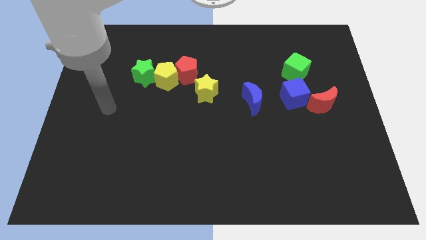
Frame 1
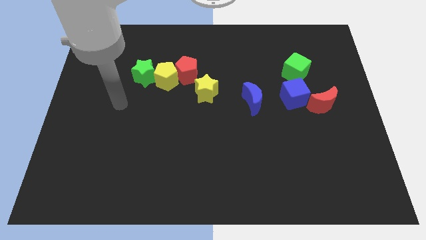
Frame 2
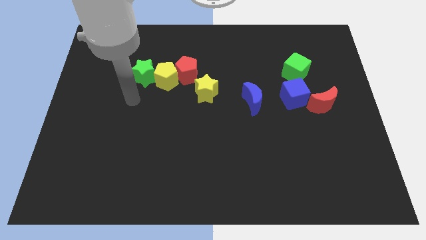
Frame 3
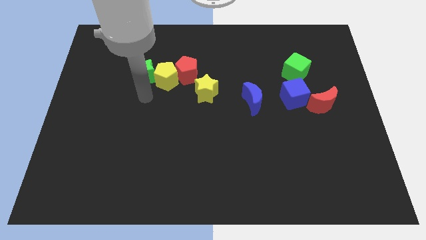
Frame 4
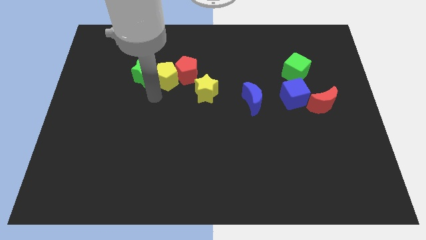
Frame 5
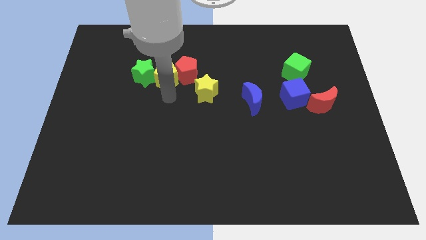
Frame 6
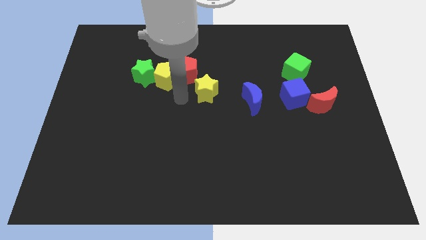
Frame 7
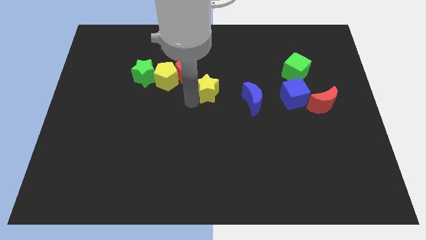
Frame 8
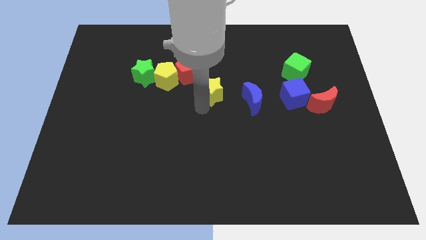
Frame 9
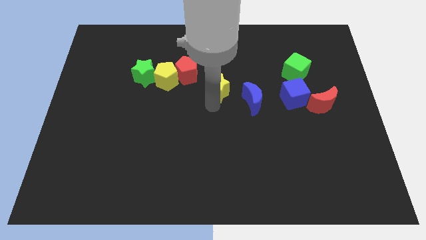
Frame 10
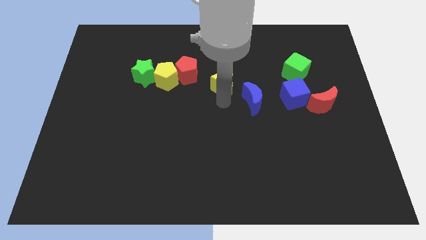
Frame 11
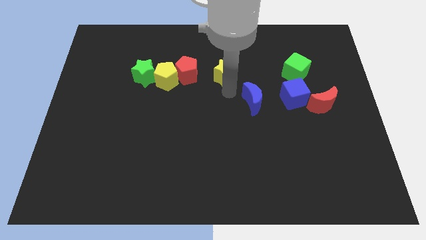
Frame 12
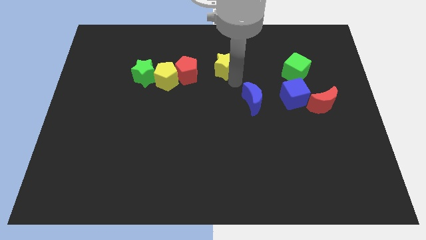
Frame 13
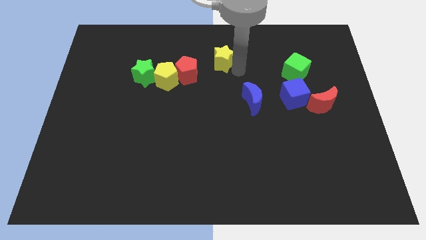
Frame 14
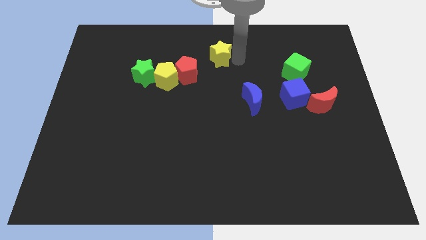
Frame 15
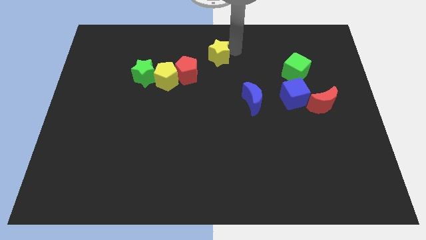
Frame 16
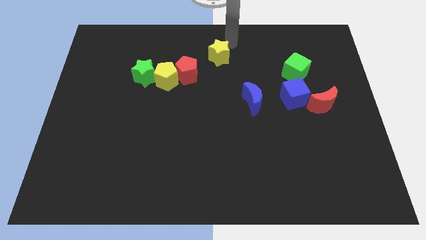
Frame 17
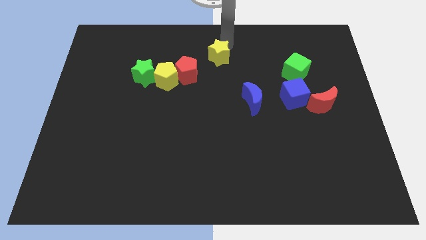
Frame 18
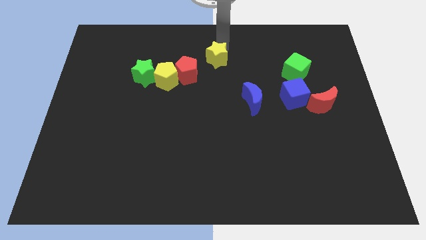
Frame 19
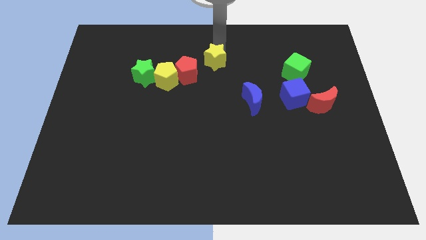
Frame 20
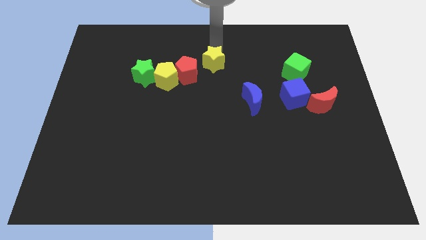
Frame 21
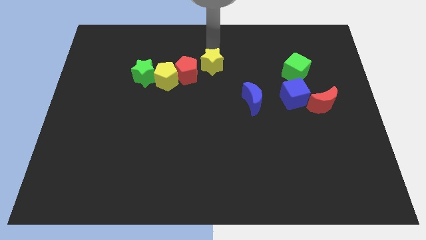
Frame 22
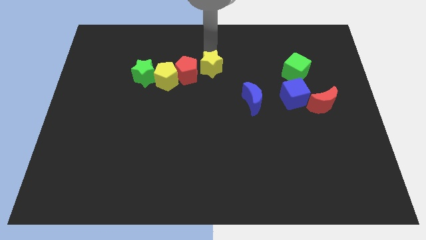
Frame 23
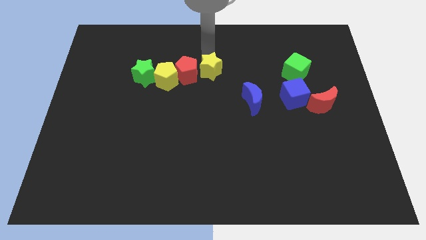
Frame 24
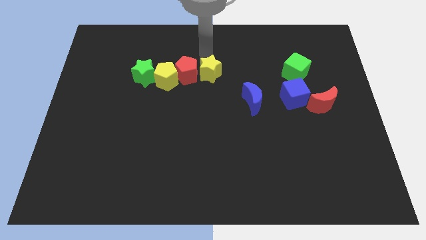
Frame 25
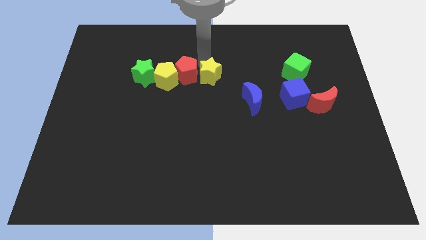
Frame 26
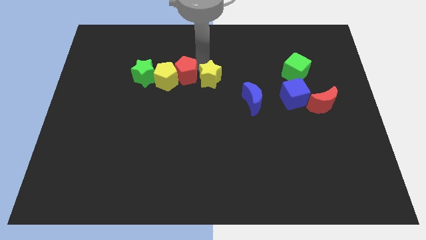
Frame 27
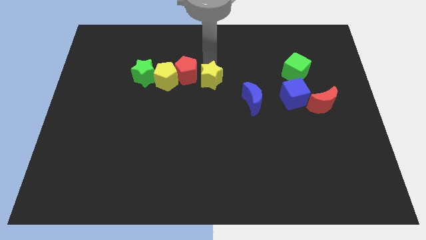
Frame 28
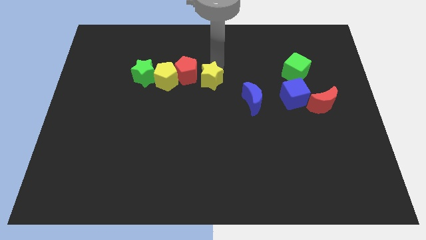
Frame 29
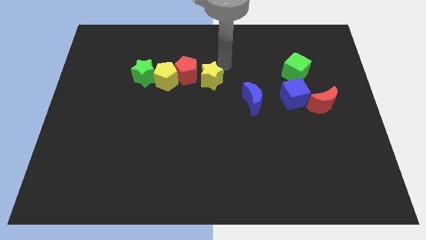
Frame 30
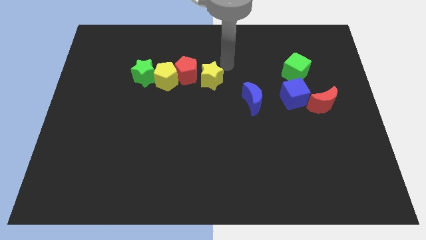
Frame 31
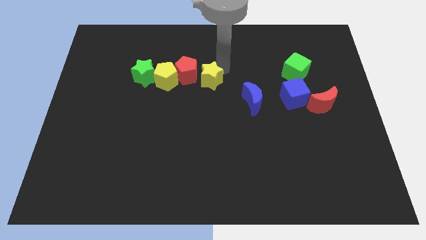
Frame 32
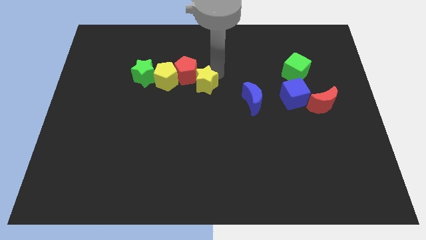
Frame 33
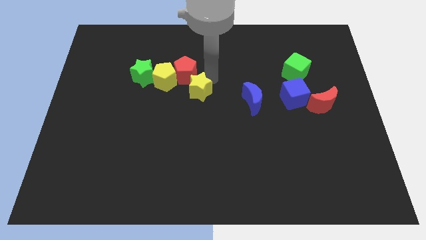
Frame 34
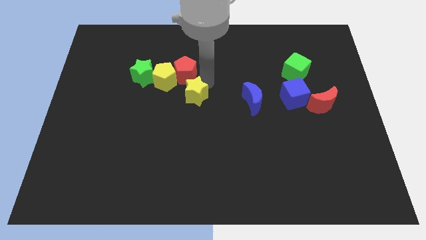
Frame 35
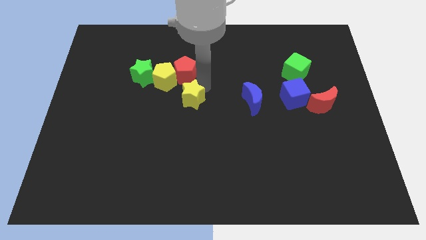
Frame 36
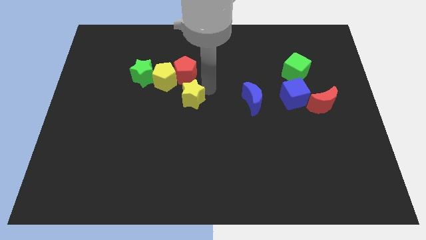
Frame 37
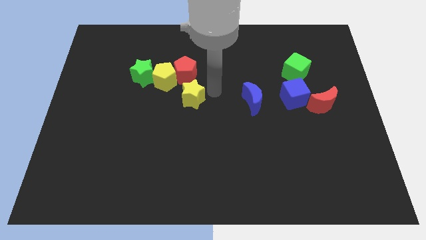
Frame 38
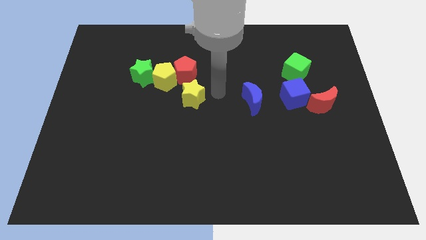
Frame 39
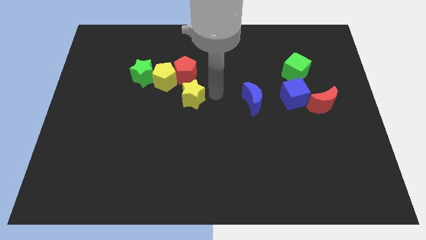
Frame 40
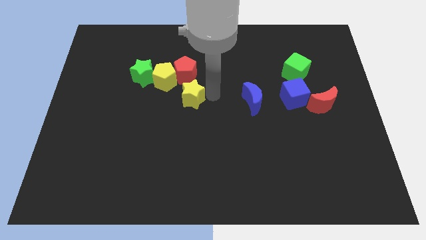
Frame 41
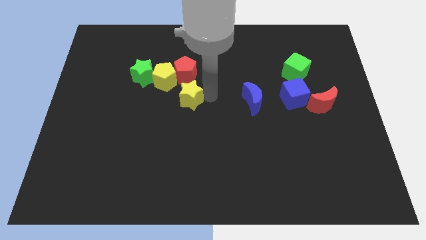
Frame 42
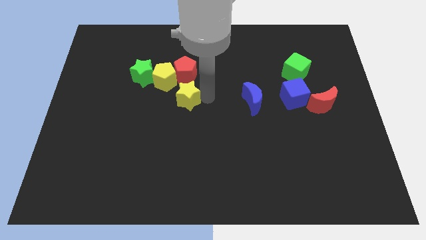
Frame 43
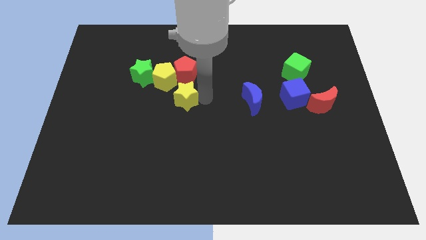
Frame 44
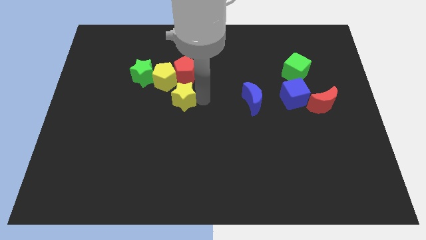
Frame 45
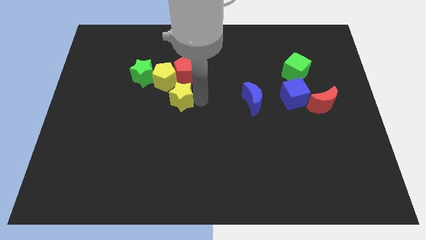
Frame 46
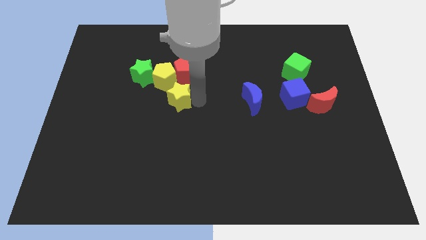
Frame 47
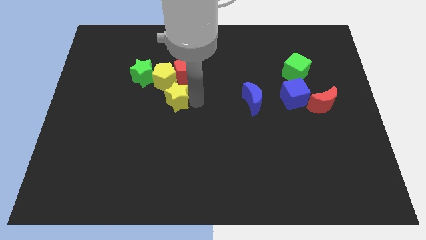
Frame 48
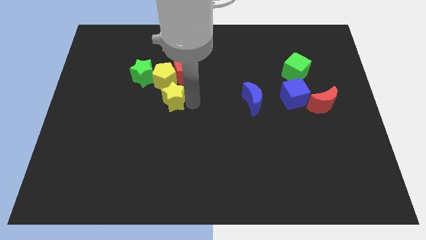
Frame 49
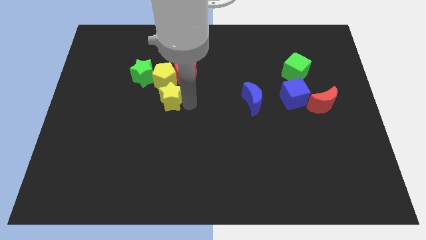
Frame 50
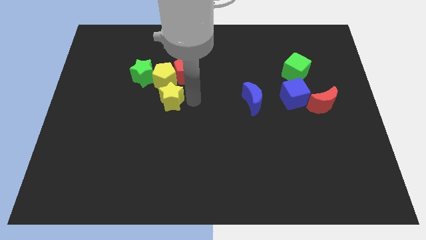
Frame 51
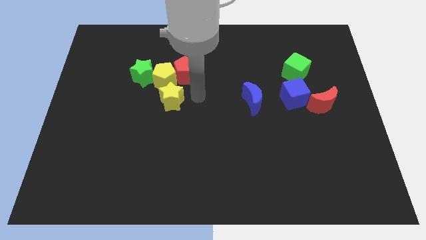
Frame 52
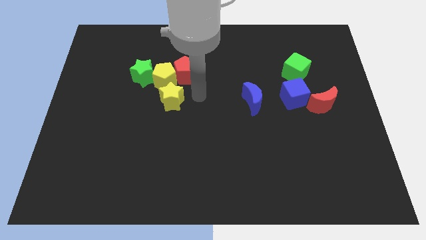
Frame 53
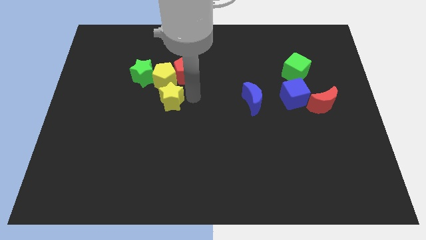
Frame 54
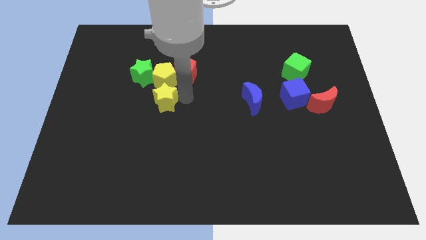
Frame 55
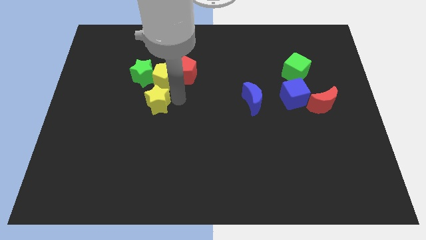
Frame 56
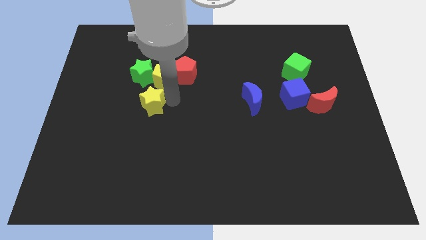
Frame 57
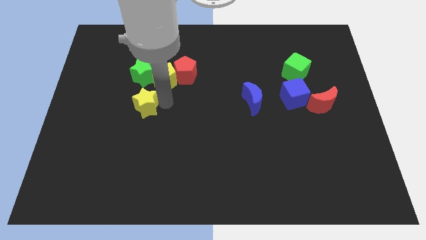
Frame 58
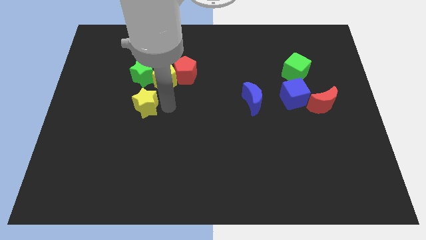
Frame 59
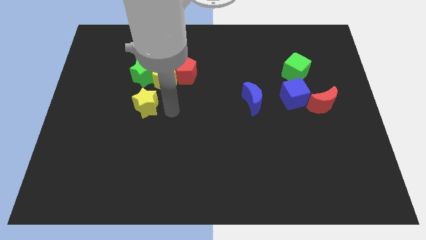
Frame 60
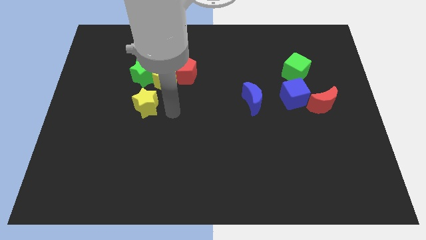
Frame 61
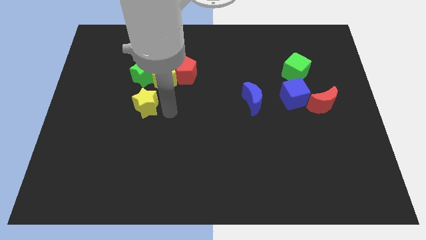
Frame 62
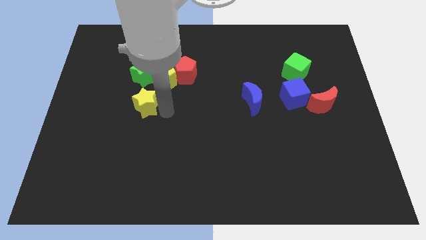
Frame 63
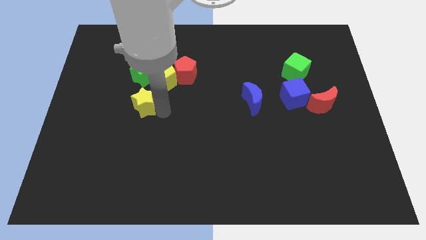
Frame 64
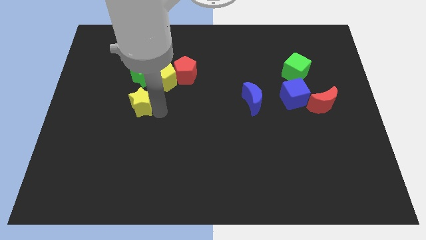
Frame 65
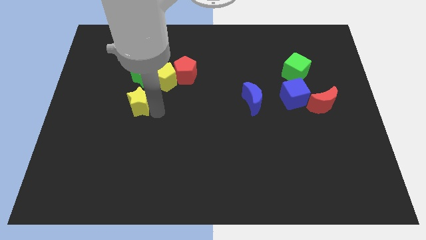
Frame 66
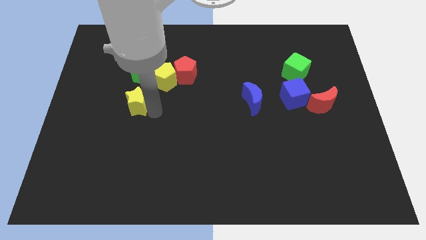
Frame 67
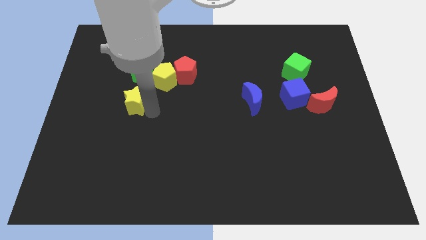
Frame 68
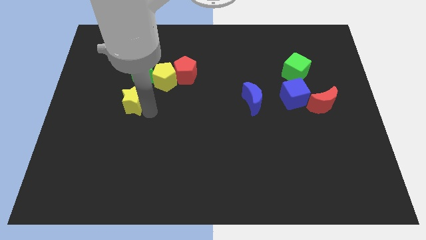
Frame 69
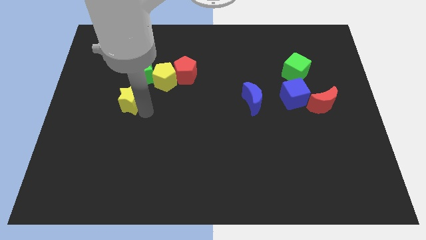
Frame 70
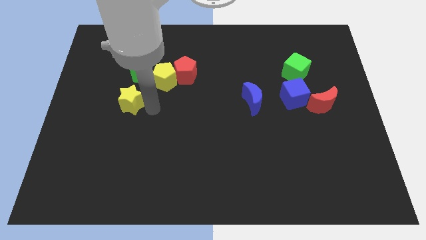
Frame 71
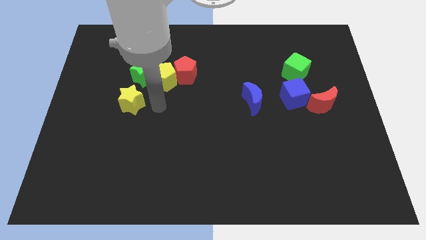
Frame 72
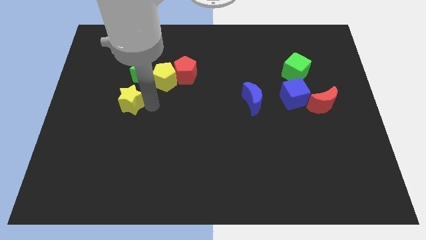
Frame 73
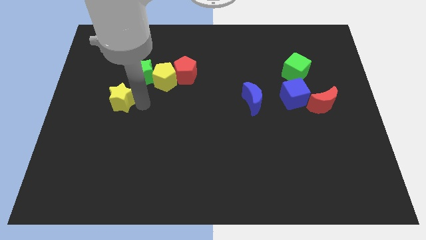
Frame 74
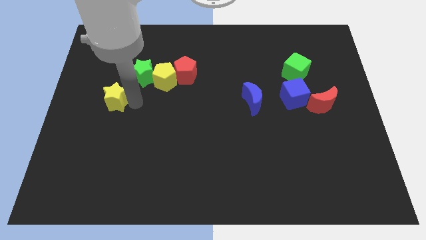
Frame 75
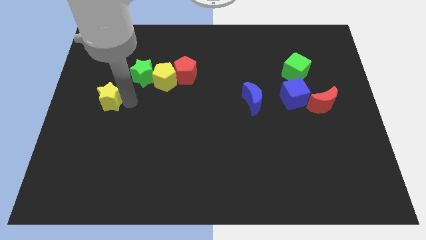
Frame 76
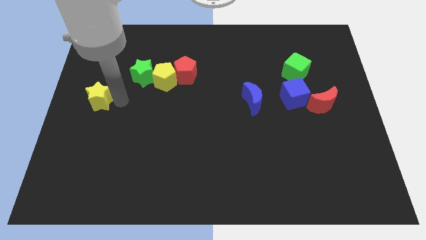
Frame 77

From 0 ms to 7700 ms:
put the yellow star to the center left
